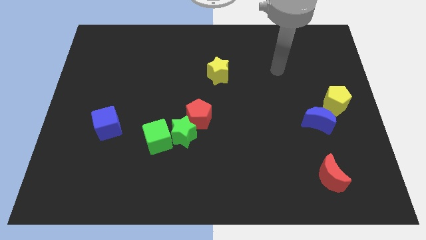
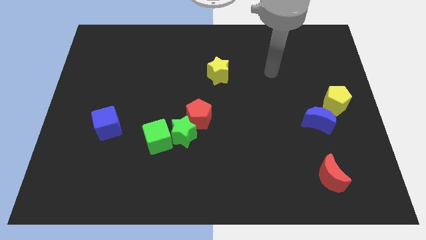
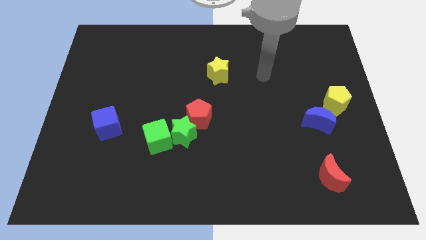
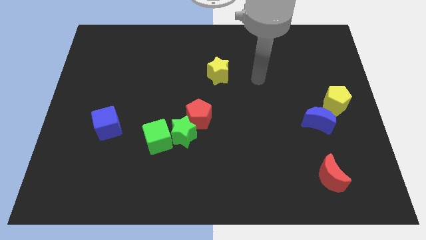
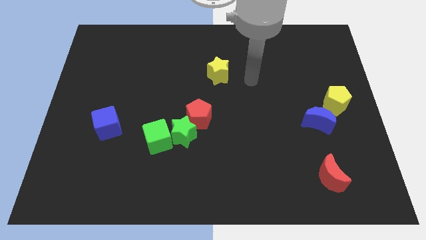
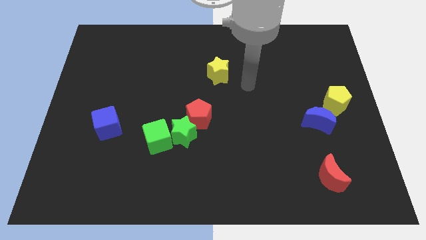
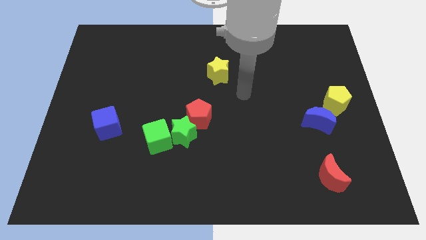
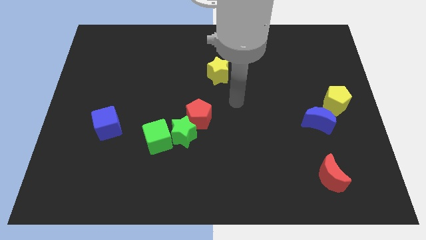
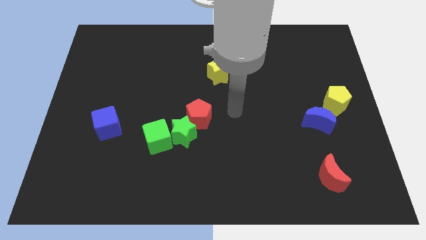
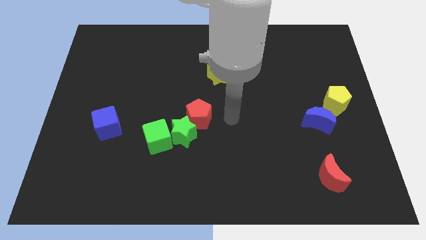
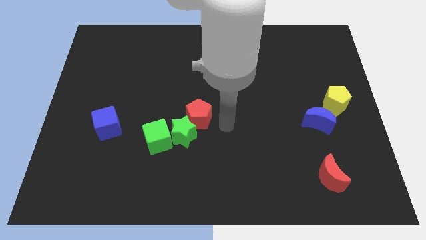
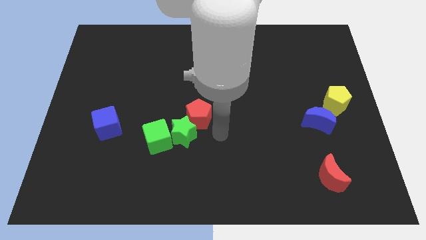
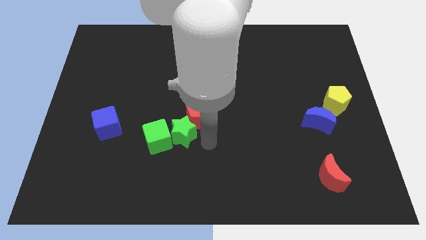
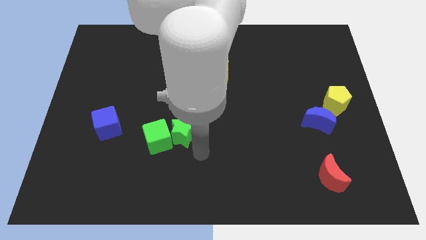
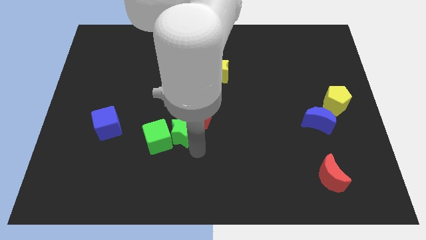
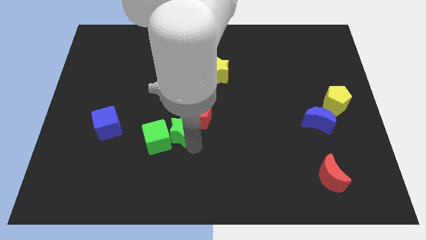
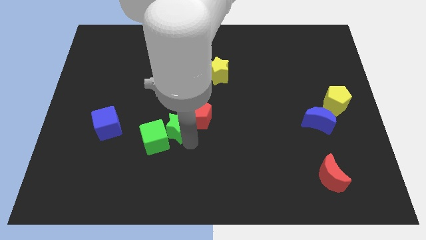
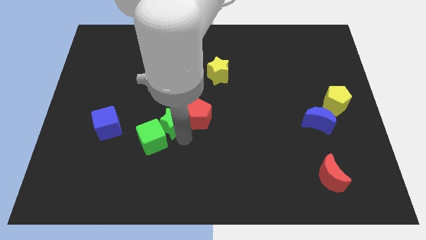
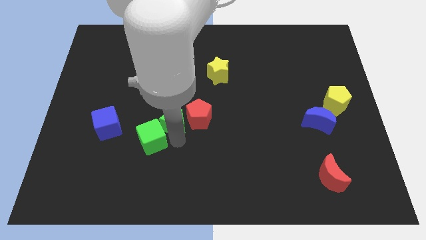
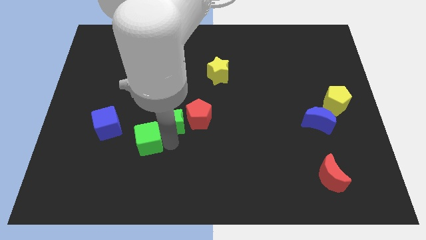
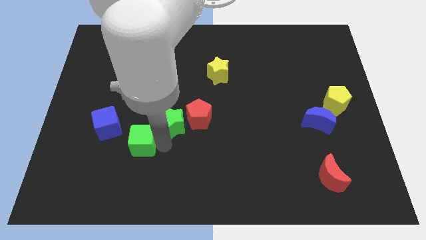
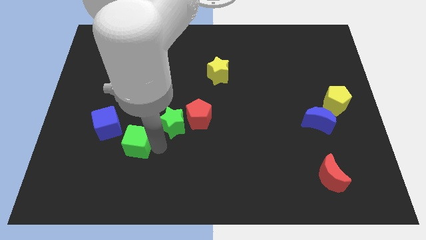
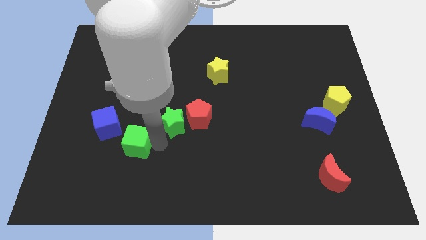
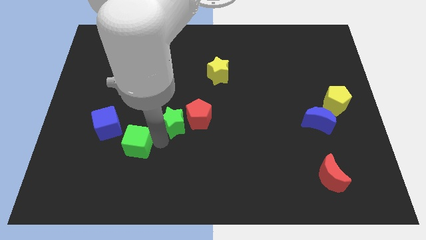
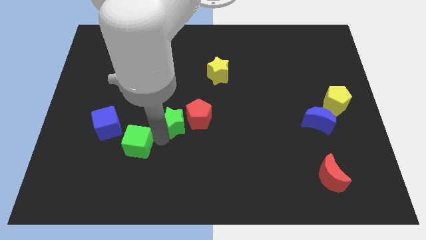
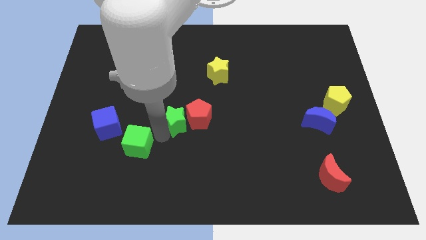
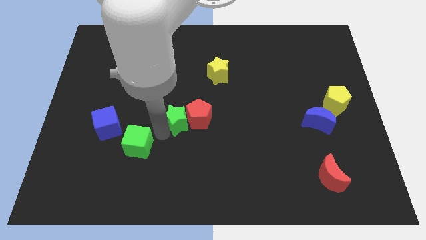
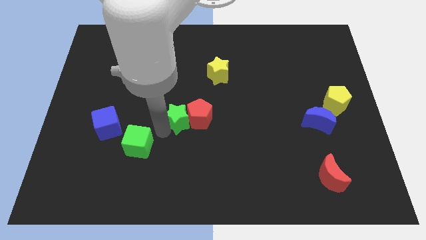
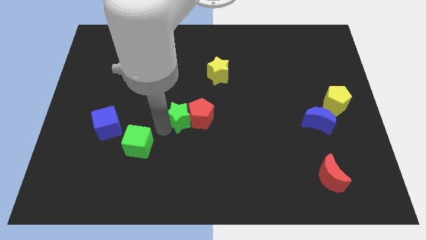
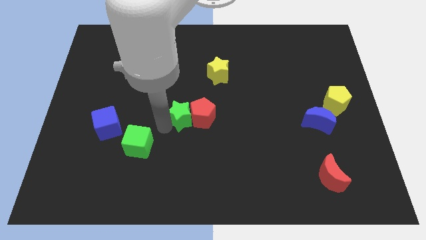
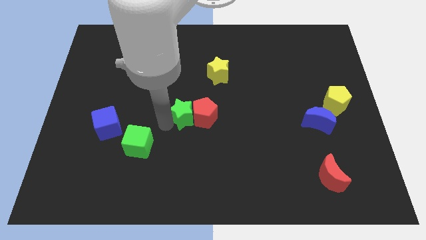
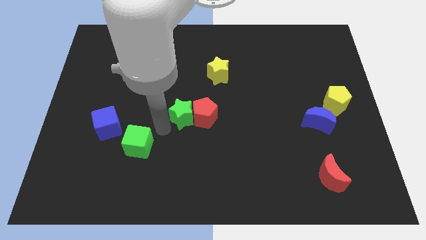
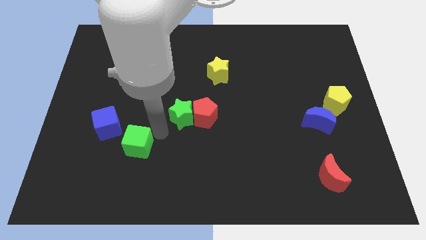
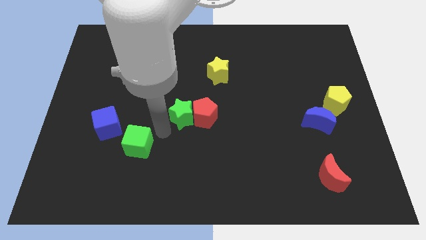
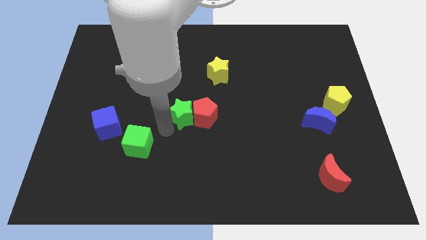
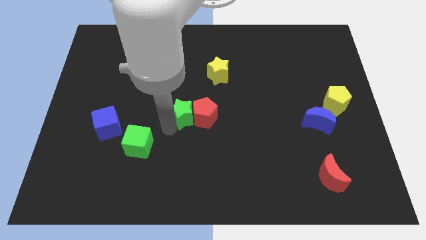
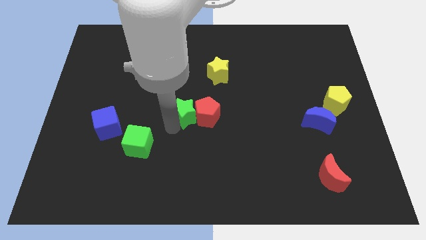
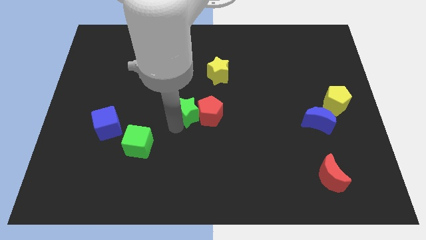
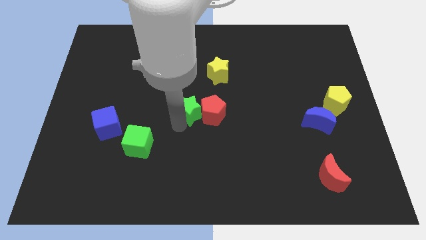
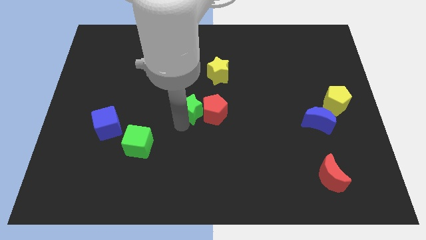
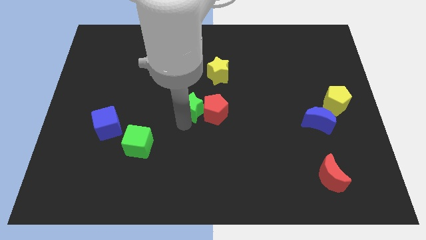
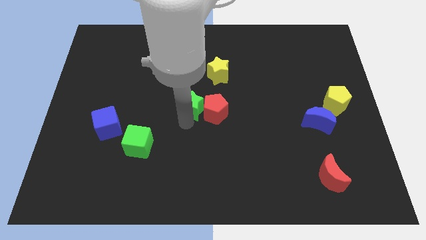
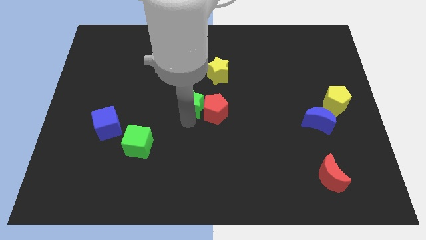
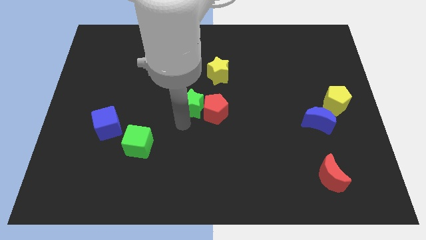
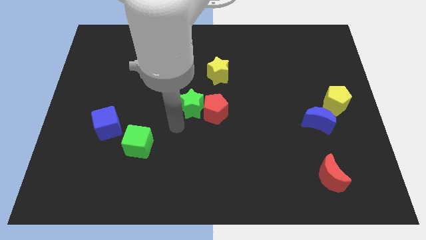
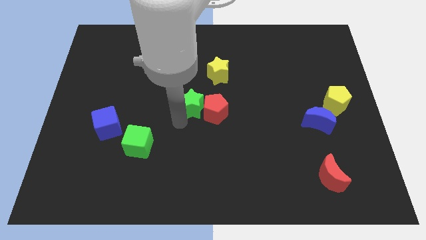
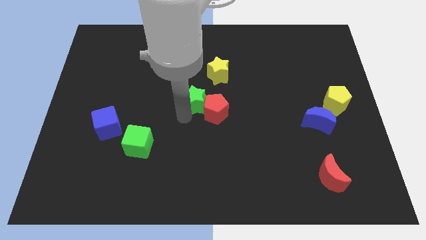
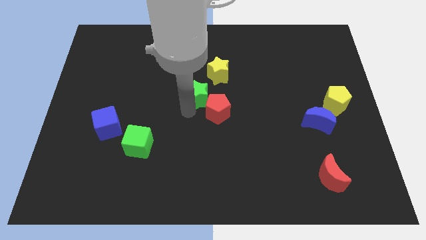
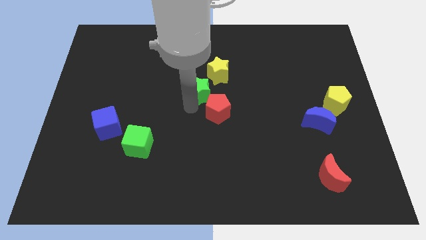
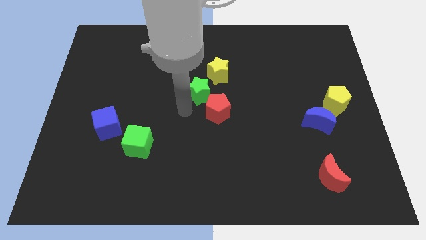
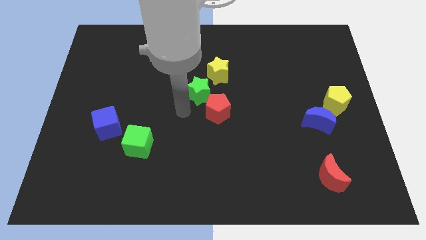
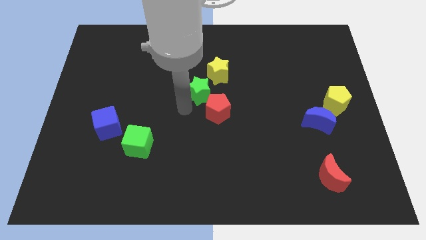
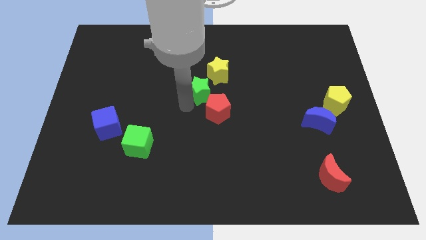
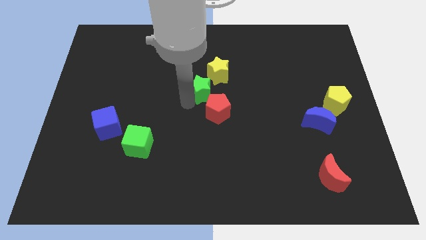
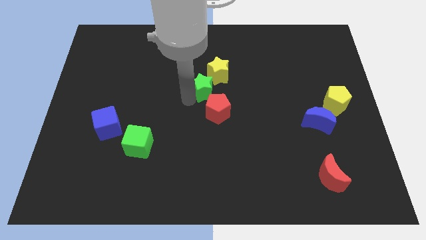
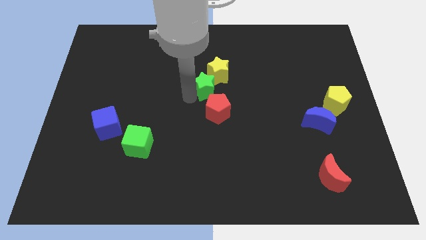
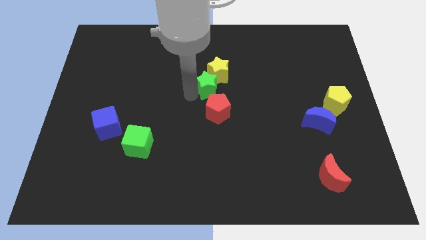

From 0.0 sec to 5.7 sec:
slide the green star to the yellow star

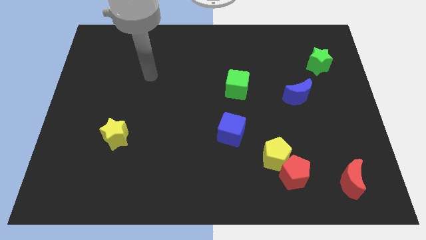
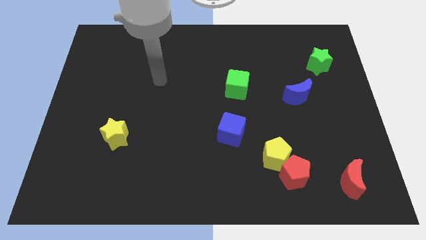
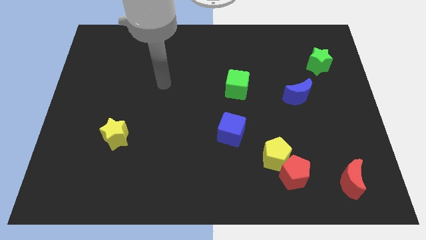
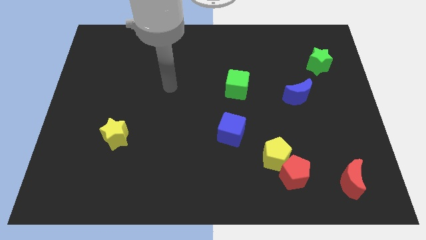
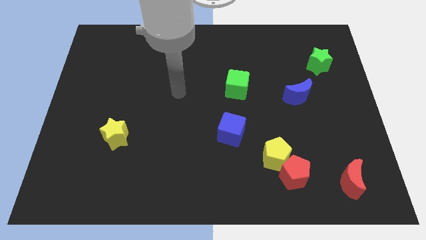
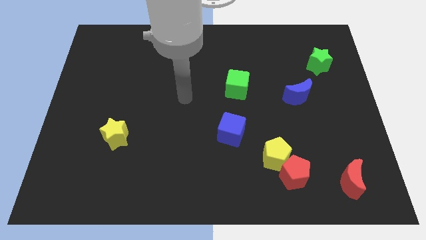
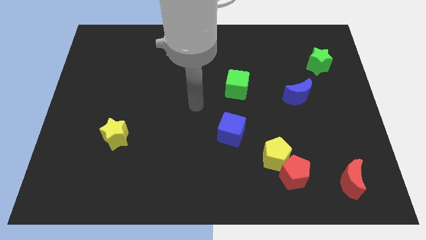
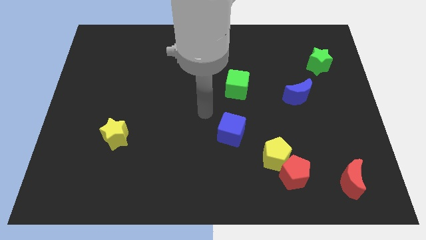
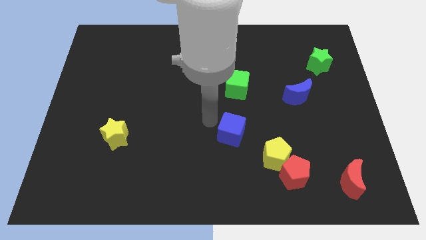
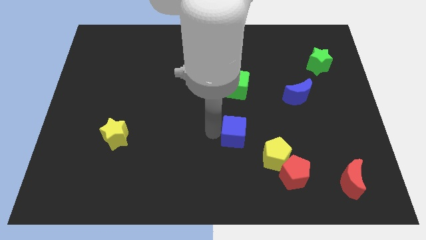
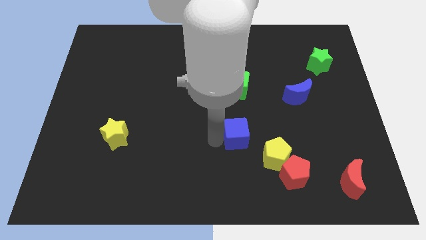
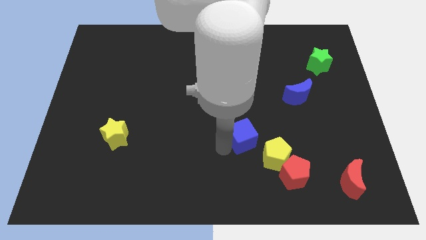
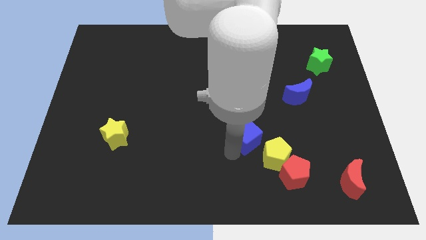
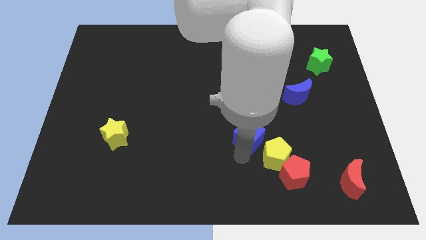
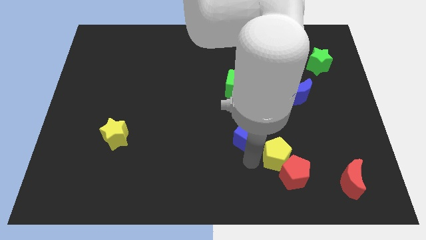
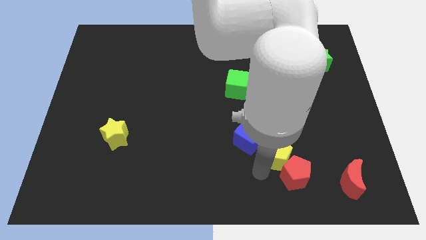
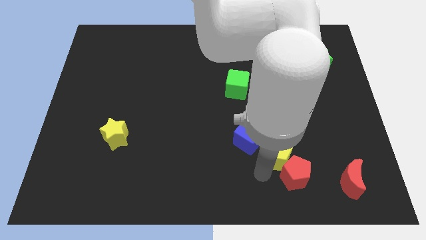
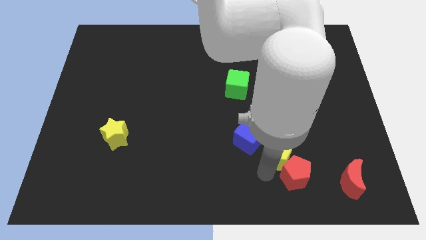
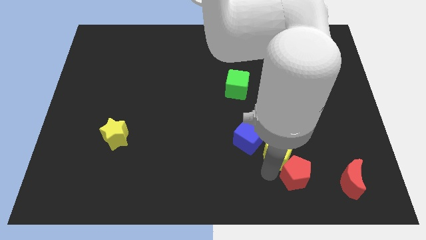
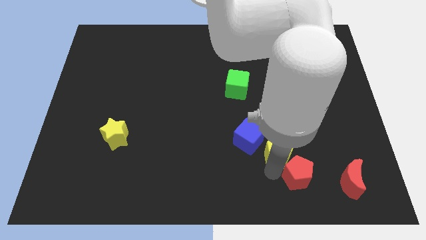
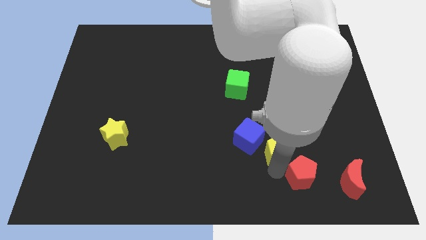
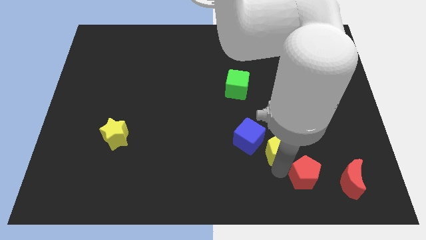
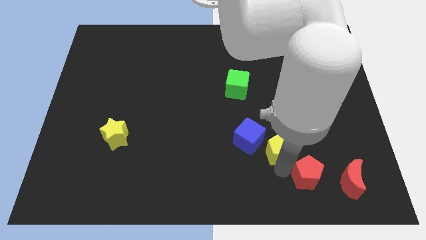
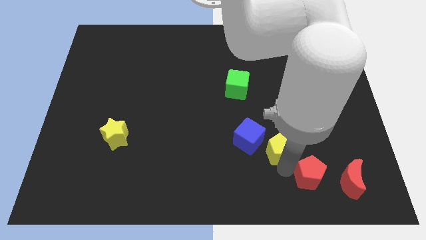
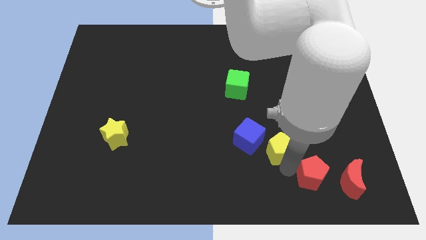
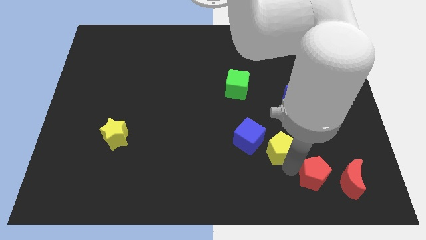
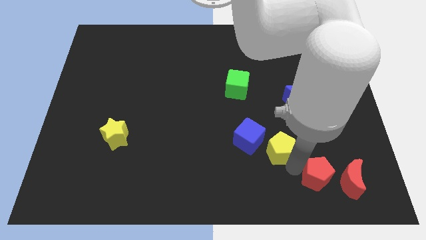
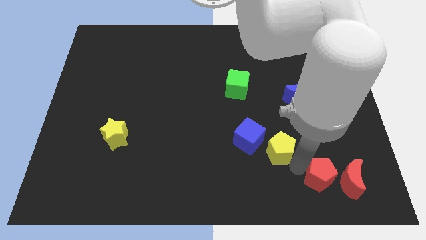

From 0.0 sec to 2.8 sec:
put the red pentagon next to the red moon
